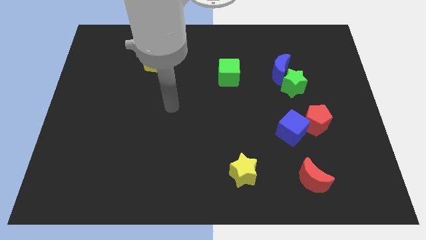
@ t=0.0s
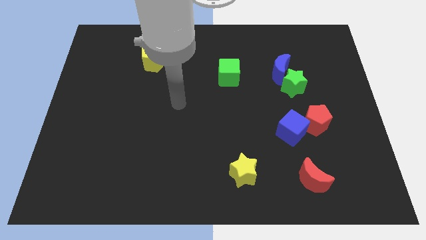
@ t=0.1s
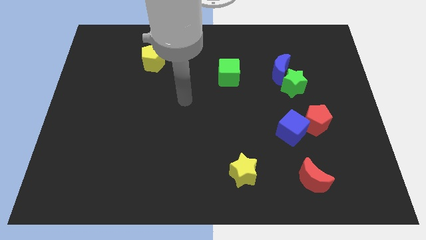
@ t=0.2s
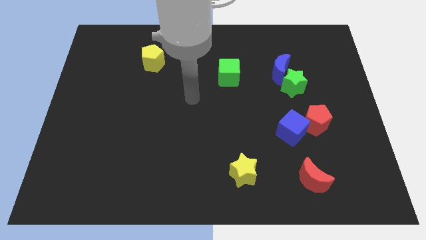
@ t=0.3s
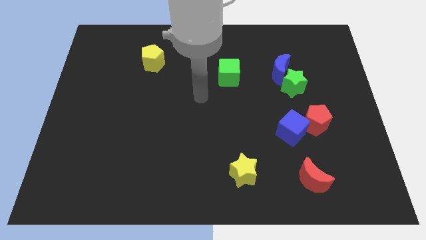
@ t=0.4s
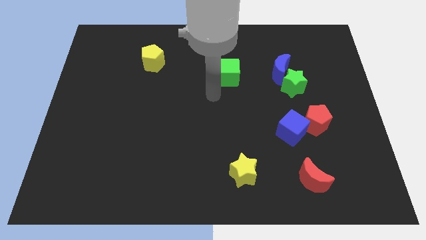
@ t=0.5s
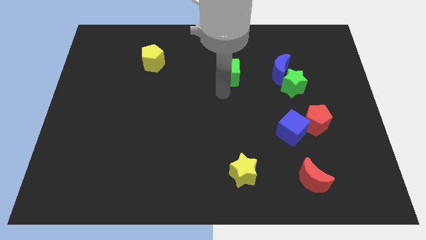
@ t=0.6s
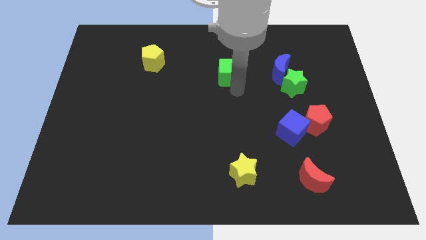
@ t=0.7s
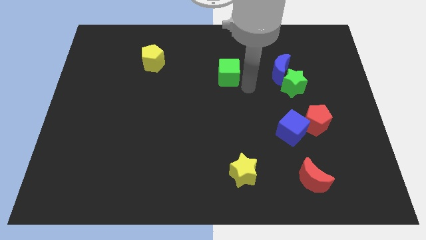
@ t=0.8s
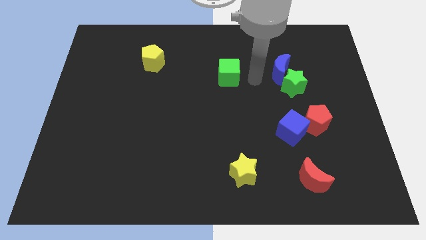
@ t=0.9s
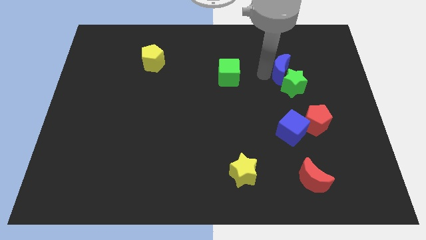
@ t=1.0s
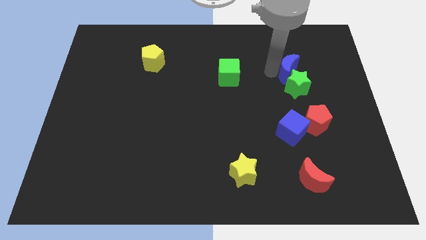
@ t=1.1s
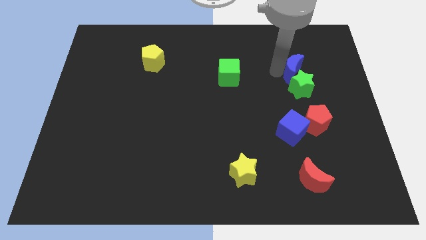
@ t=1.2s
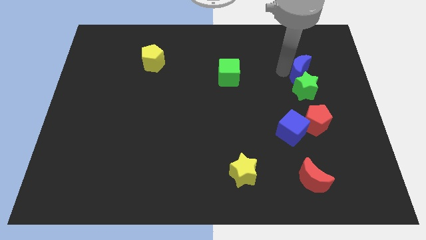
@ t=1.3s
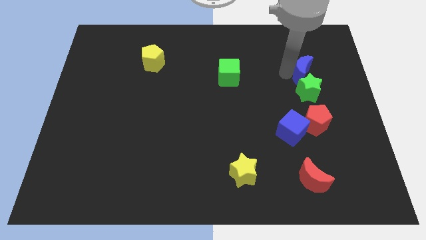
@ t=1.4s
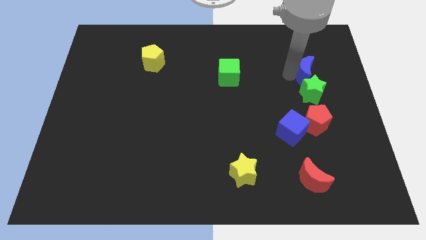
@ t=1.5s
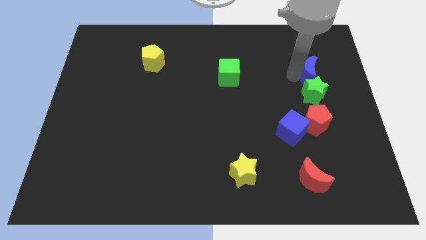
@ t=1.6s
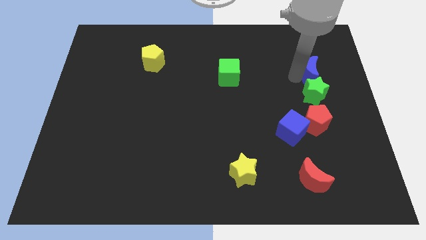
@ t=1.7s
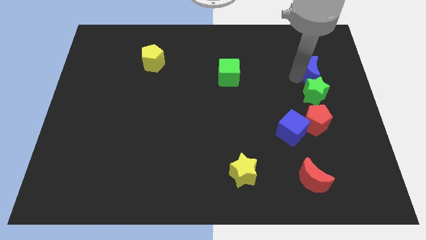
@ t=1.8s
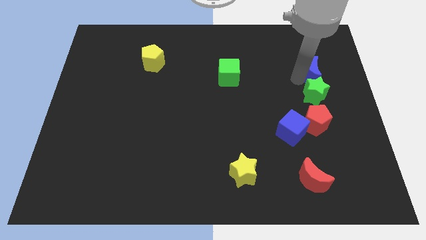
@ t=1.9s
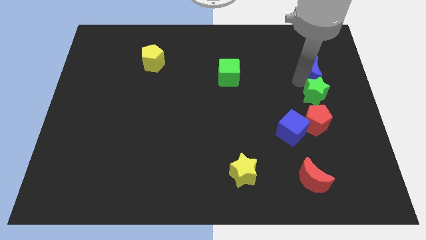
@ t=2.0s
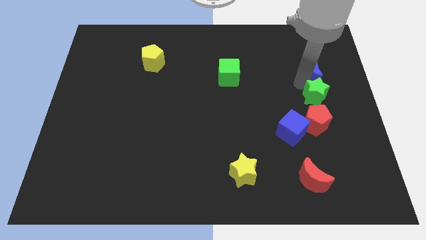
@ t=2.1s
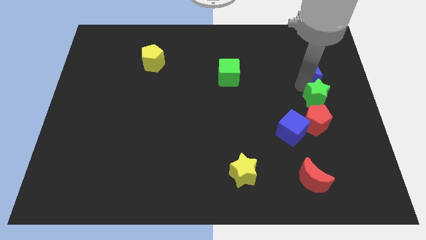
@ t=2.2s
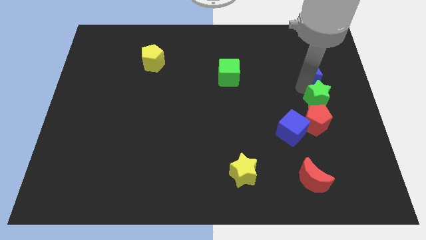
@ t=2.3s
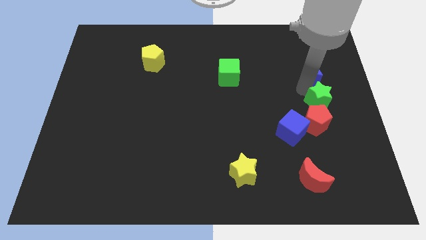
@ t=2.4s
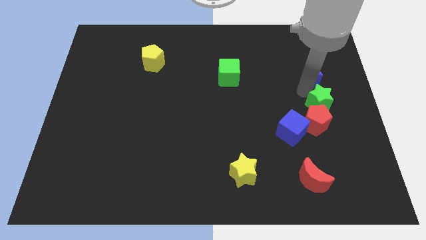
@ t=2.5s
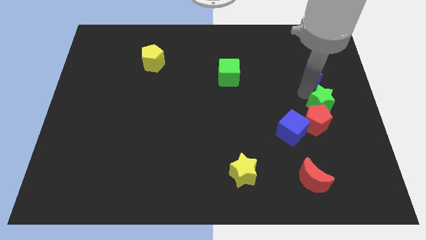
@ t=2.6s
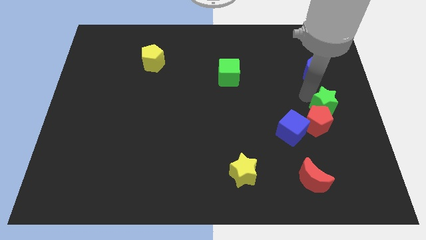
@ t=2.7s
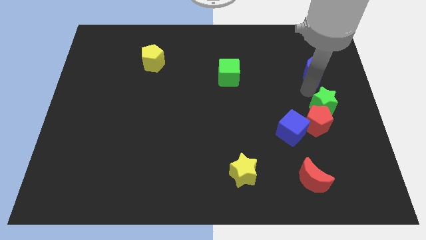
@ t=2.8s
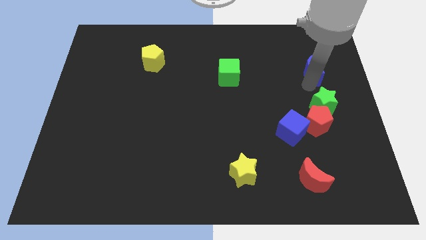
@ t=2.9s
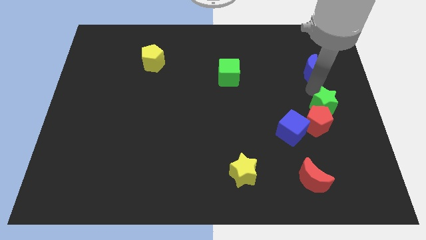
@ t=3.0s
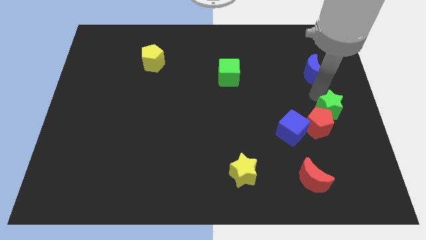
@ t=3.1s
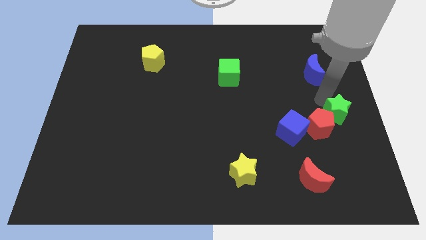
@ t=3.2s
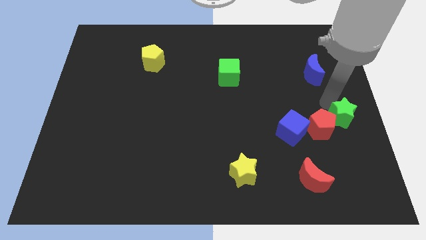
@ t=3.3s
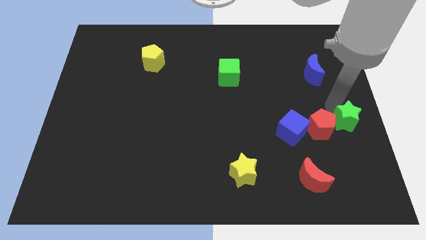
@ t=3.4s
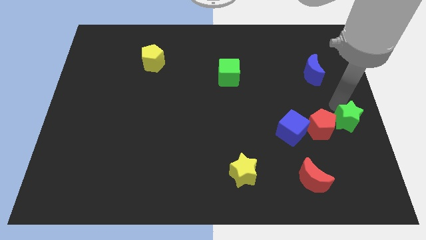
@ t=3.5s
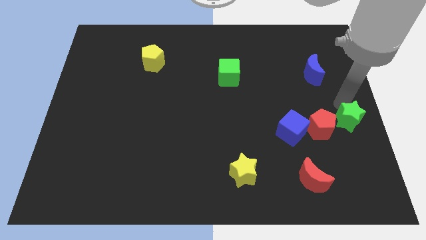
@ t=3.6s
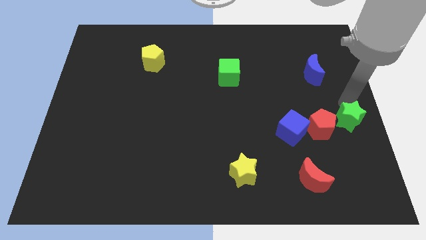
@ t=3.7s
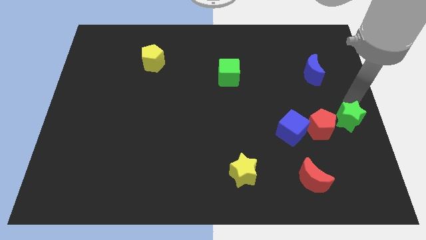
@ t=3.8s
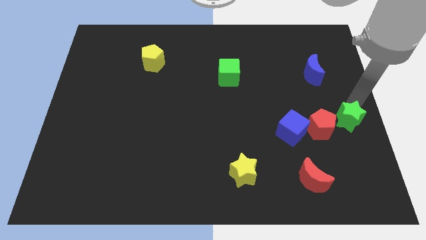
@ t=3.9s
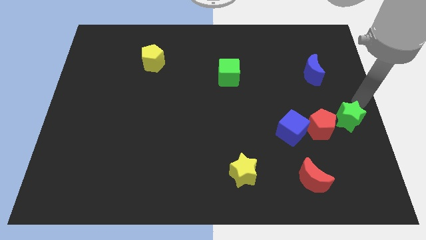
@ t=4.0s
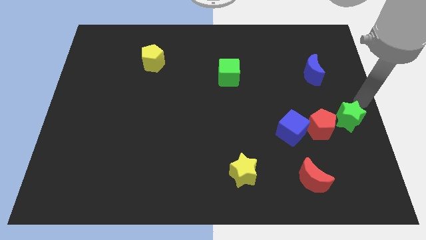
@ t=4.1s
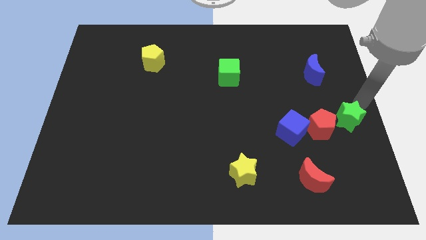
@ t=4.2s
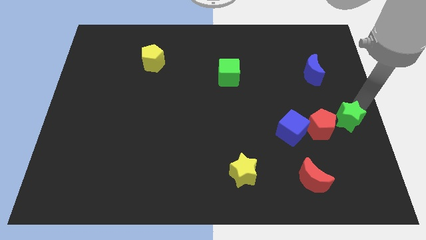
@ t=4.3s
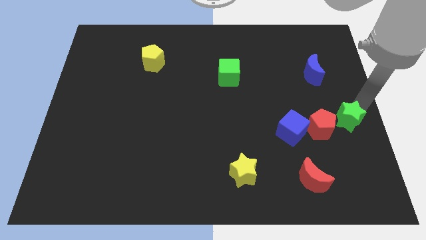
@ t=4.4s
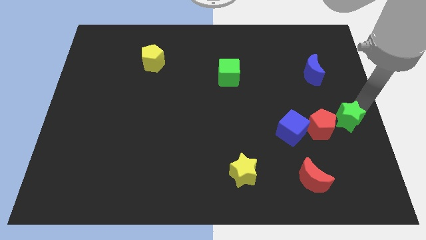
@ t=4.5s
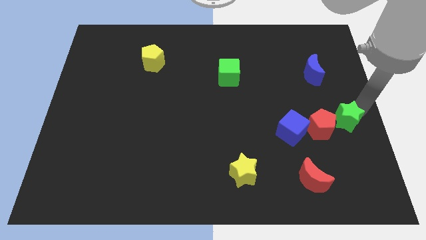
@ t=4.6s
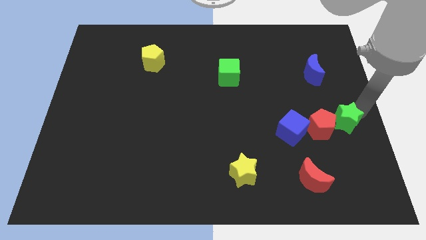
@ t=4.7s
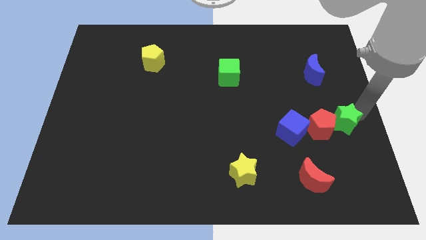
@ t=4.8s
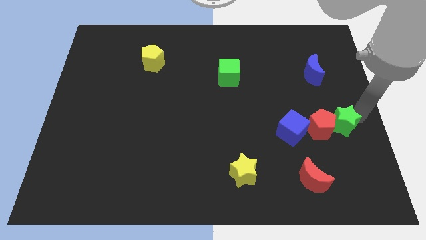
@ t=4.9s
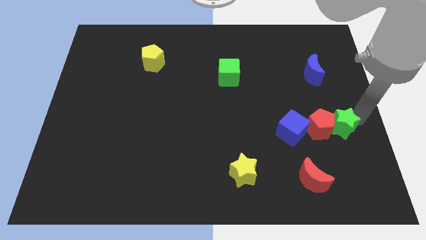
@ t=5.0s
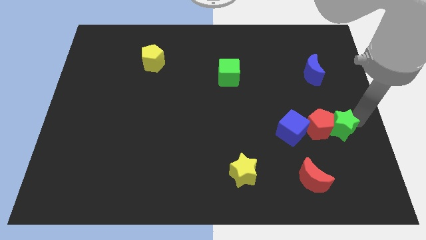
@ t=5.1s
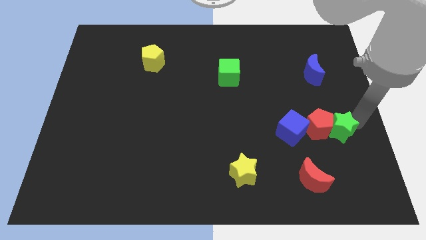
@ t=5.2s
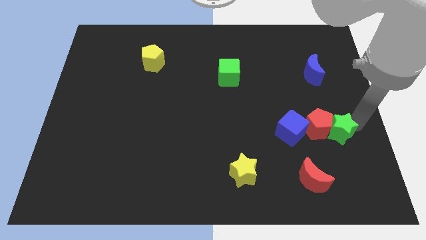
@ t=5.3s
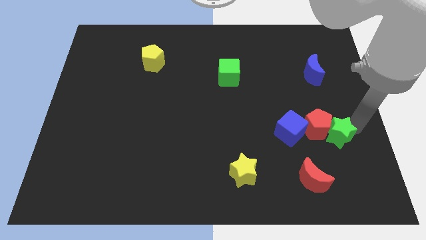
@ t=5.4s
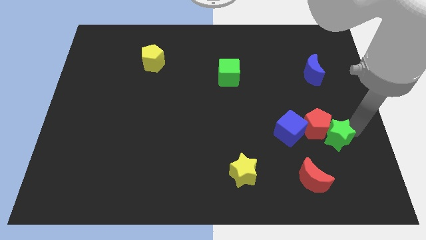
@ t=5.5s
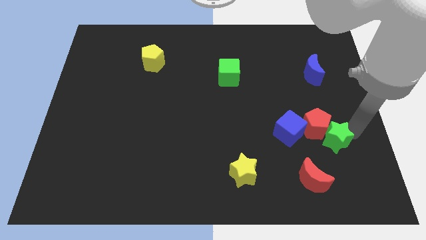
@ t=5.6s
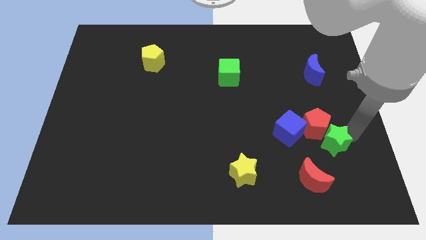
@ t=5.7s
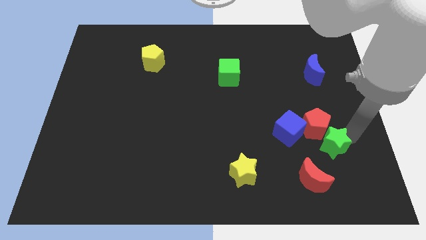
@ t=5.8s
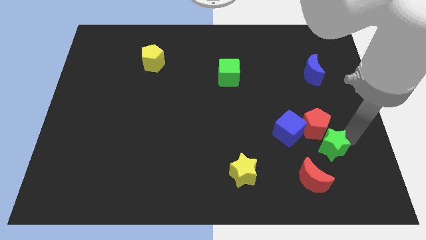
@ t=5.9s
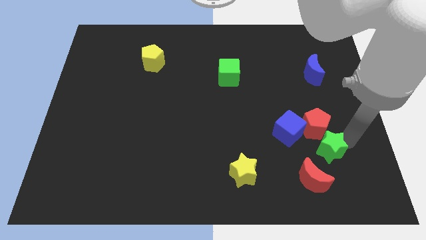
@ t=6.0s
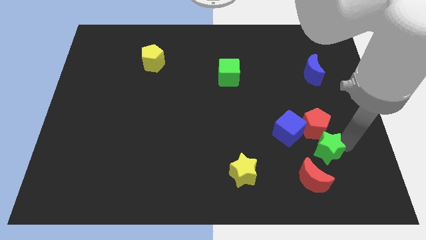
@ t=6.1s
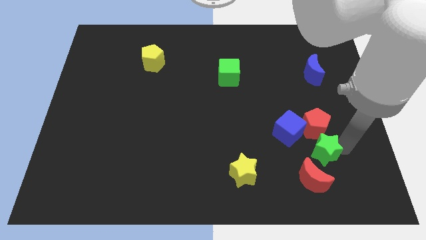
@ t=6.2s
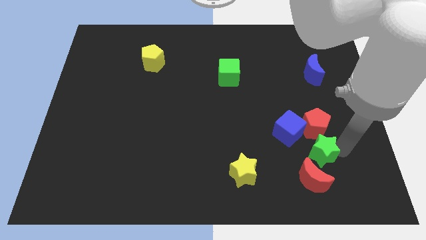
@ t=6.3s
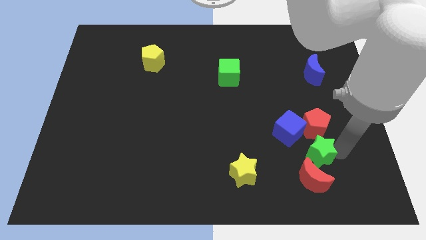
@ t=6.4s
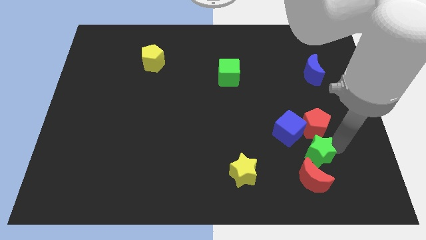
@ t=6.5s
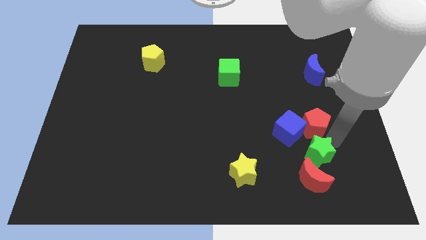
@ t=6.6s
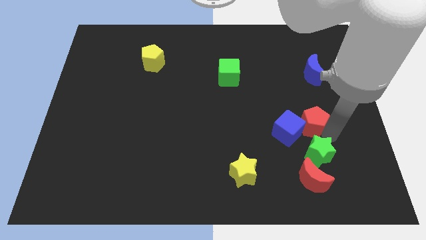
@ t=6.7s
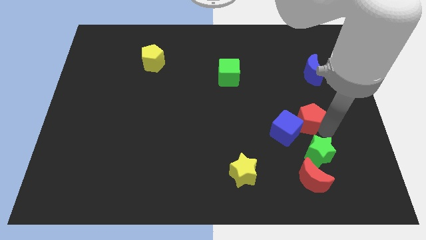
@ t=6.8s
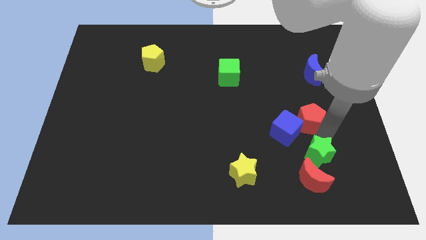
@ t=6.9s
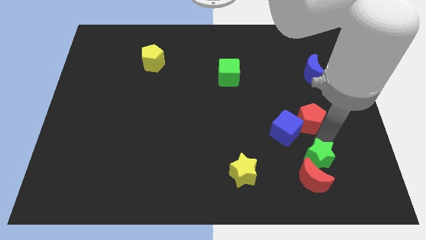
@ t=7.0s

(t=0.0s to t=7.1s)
slide the green star close to the red moon
